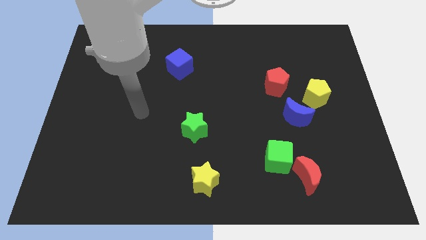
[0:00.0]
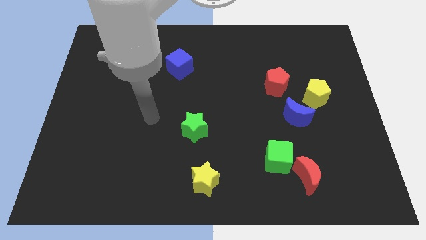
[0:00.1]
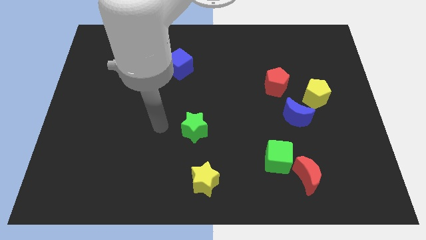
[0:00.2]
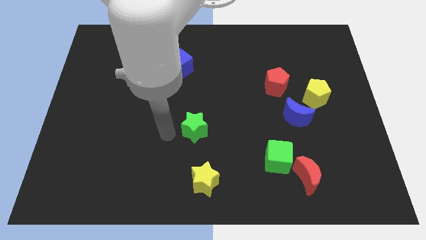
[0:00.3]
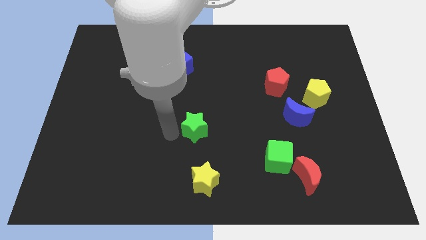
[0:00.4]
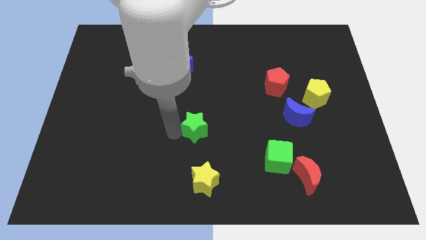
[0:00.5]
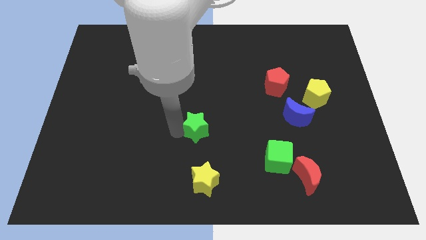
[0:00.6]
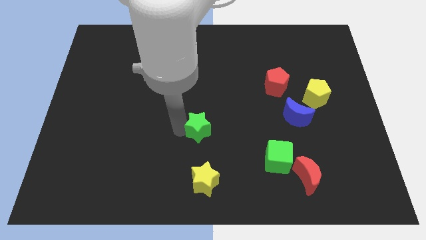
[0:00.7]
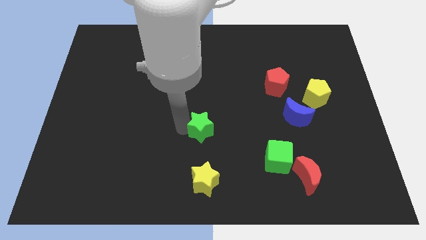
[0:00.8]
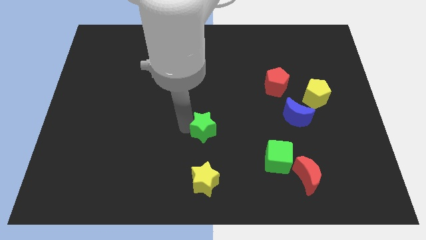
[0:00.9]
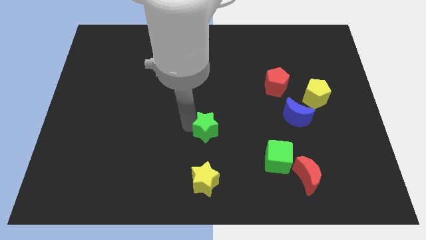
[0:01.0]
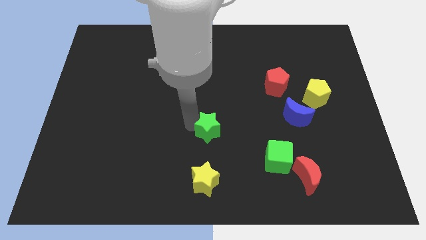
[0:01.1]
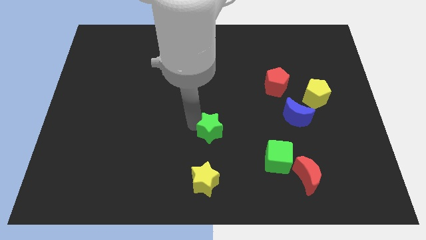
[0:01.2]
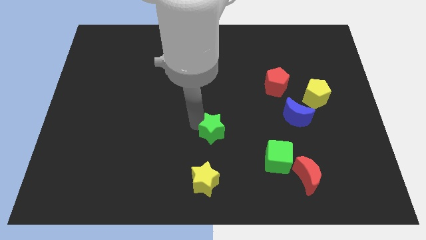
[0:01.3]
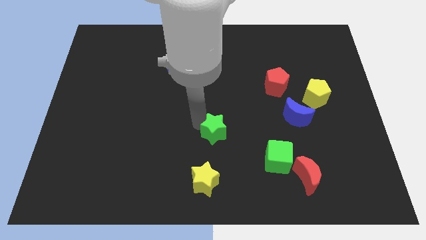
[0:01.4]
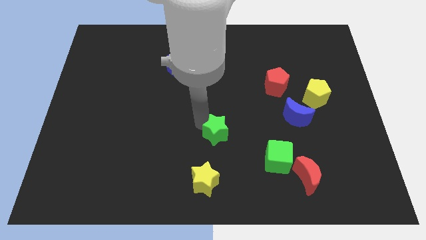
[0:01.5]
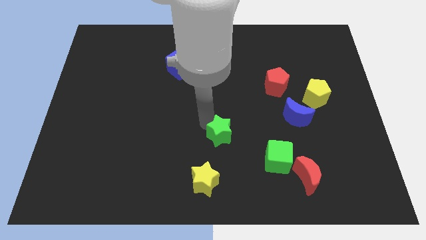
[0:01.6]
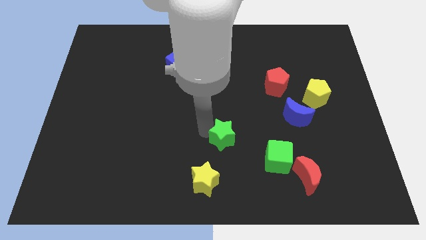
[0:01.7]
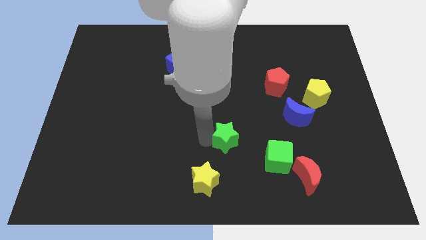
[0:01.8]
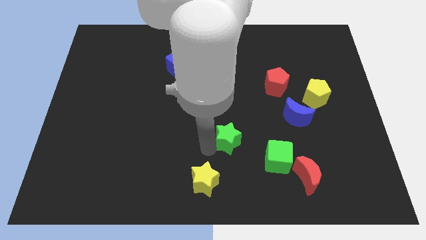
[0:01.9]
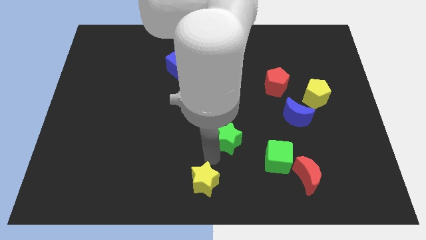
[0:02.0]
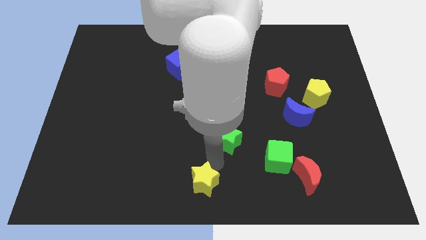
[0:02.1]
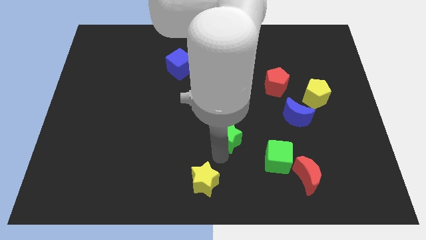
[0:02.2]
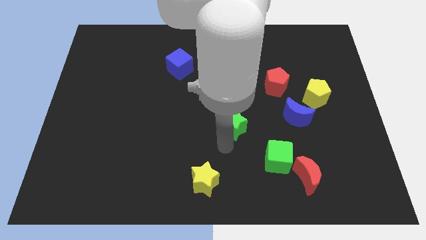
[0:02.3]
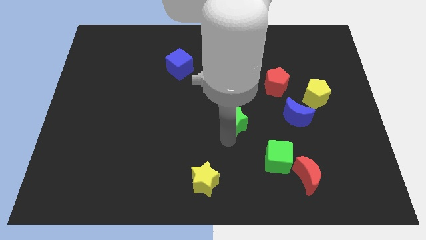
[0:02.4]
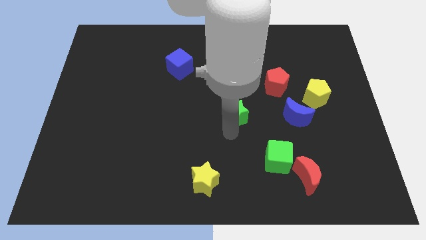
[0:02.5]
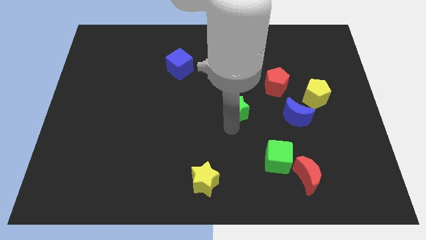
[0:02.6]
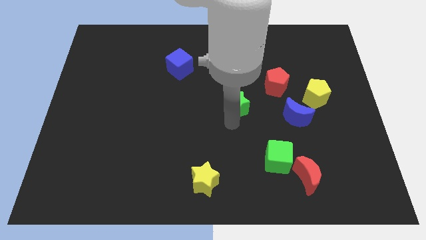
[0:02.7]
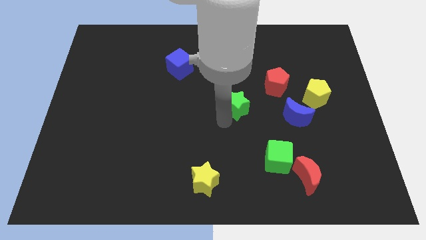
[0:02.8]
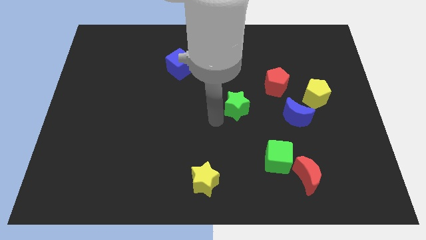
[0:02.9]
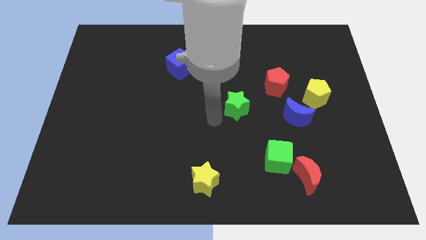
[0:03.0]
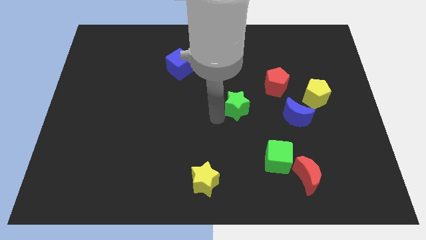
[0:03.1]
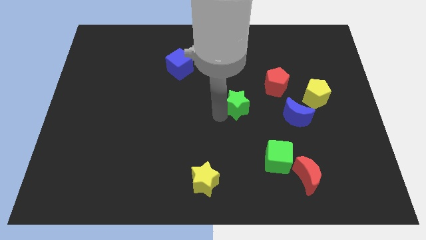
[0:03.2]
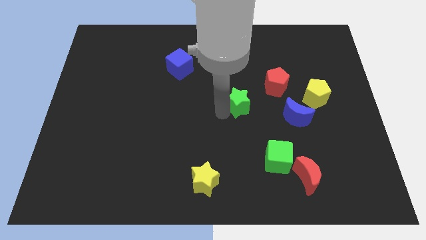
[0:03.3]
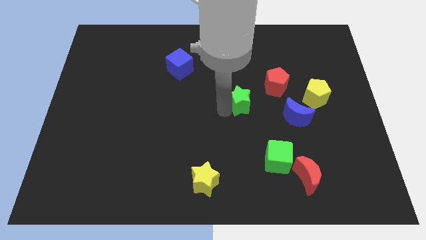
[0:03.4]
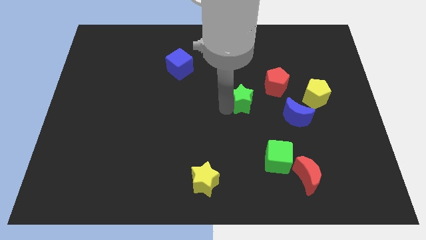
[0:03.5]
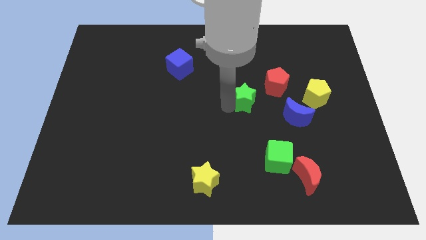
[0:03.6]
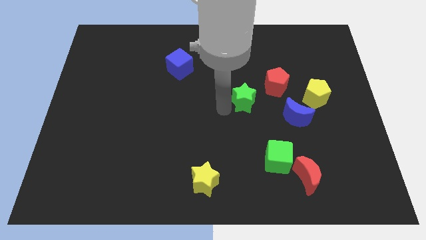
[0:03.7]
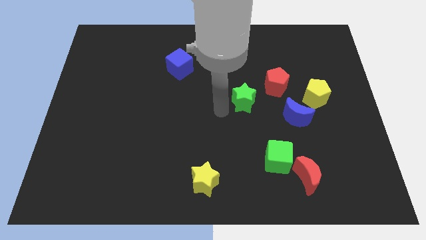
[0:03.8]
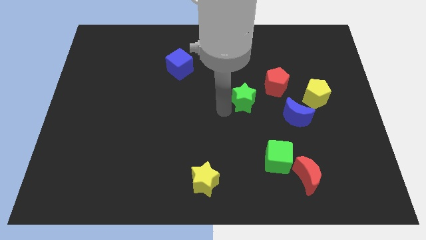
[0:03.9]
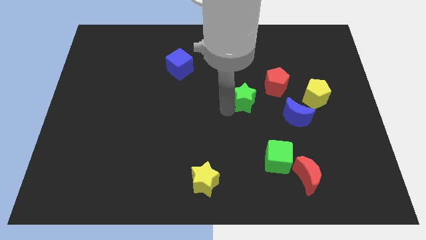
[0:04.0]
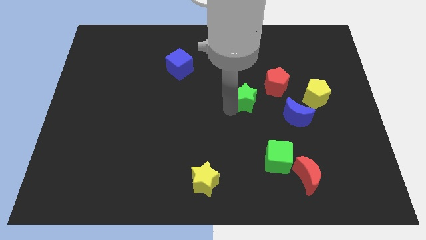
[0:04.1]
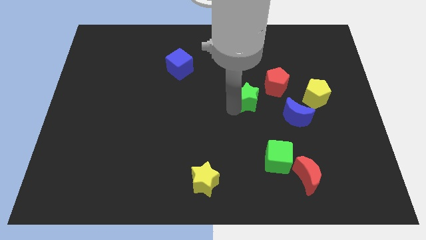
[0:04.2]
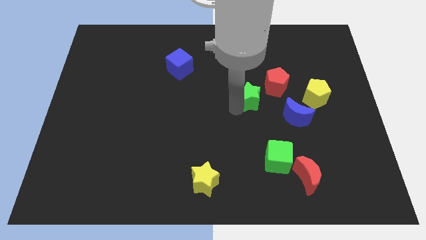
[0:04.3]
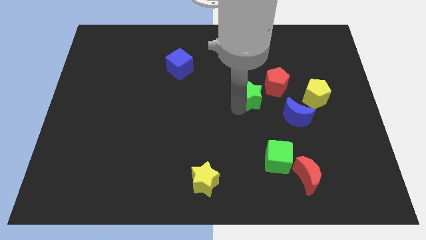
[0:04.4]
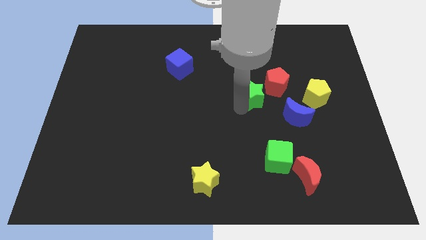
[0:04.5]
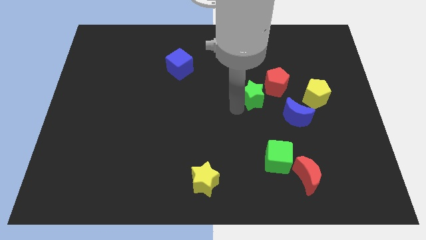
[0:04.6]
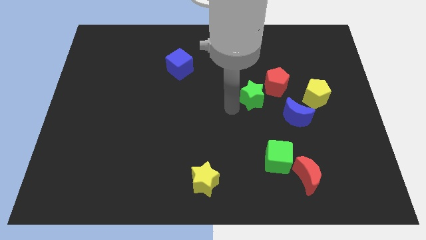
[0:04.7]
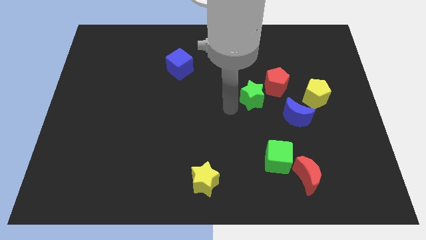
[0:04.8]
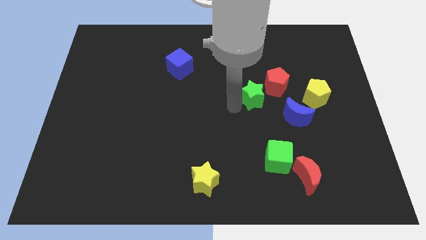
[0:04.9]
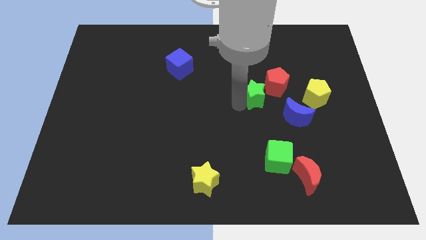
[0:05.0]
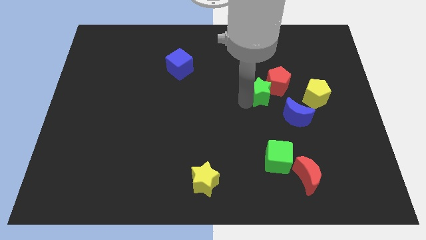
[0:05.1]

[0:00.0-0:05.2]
put the green star next to the red pentagon

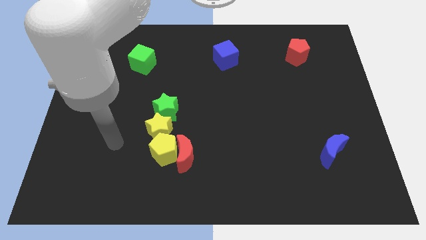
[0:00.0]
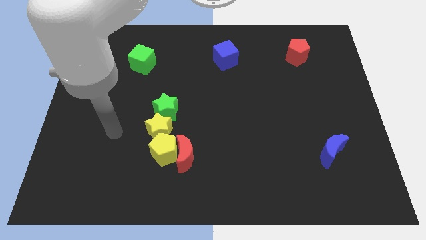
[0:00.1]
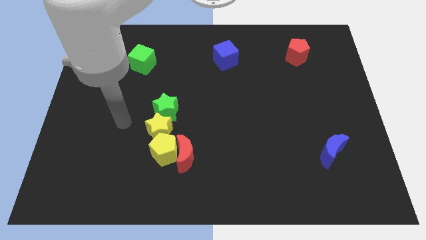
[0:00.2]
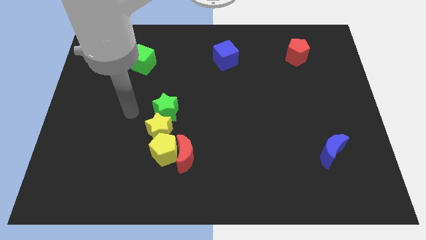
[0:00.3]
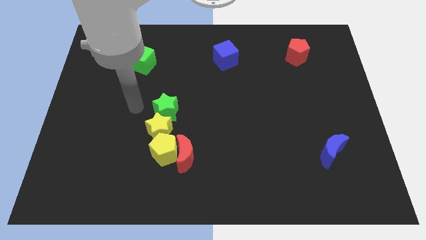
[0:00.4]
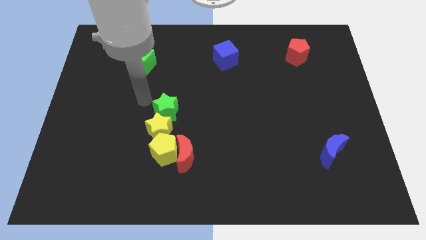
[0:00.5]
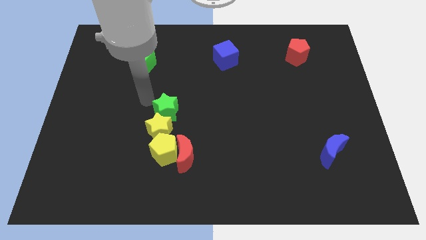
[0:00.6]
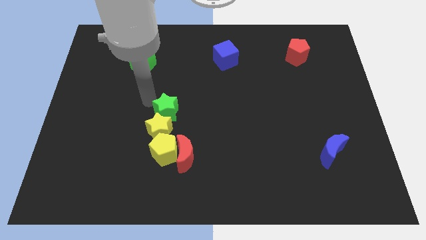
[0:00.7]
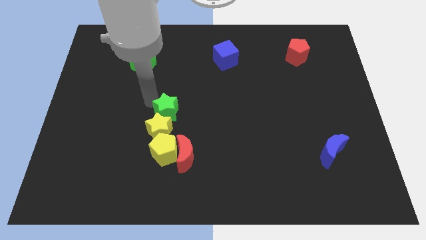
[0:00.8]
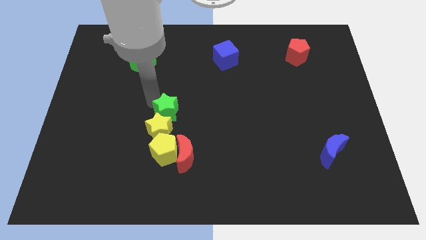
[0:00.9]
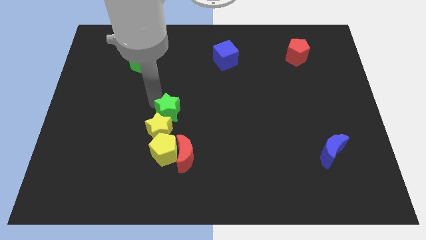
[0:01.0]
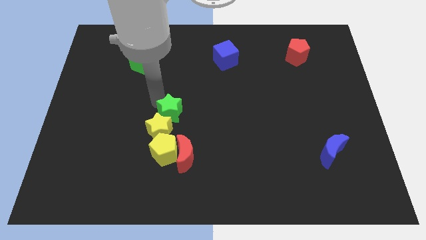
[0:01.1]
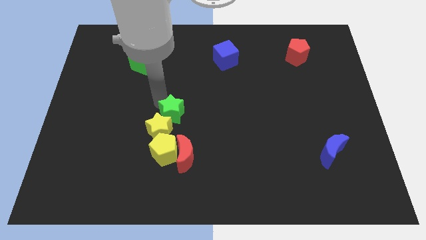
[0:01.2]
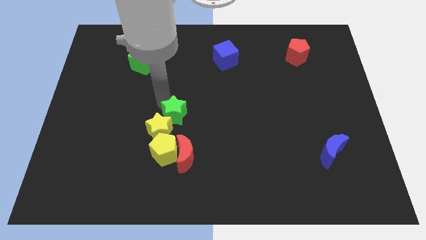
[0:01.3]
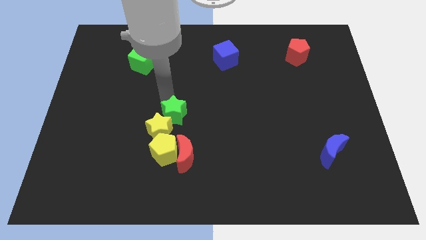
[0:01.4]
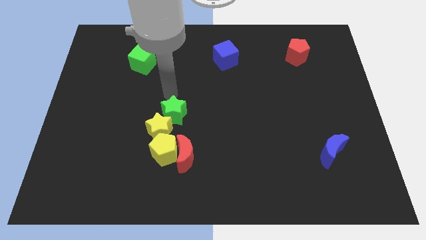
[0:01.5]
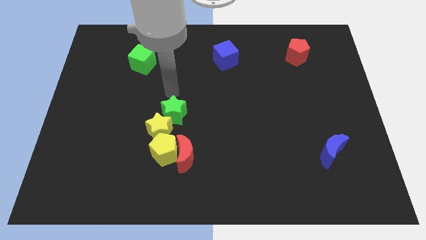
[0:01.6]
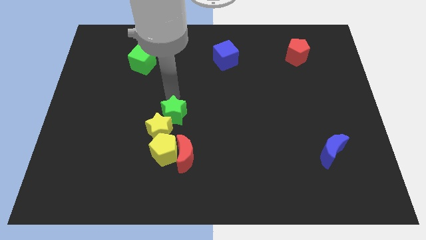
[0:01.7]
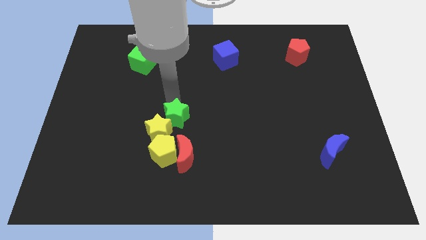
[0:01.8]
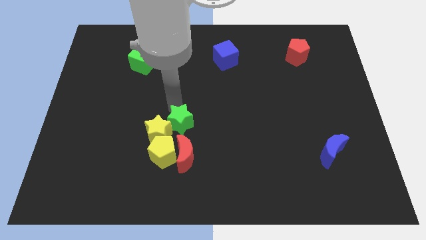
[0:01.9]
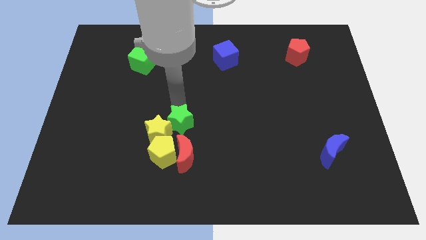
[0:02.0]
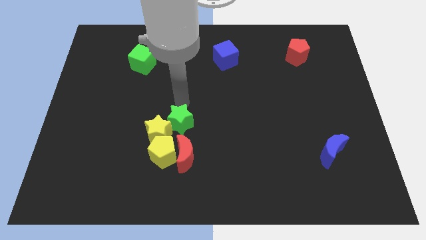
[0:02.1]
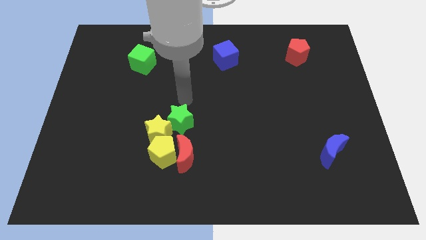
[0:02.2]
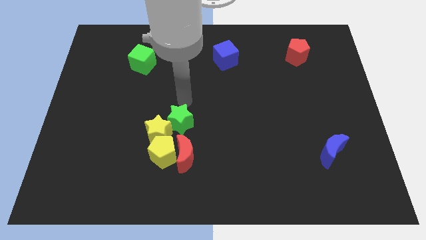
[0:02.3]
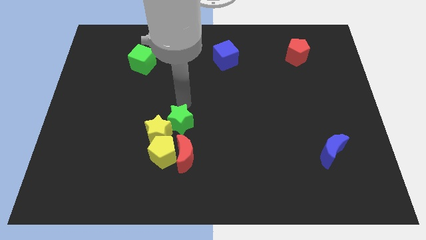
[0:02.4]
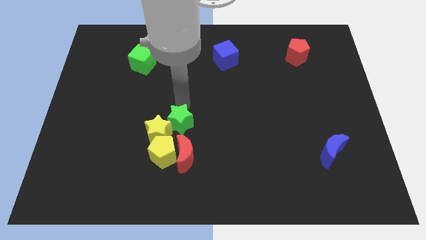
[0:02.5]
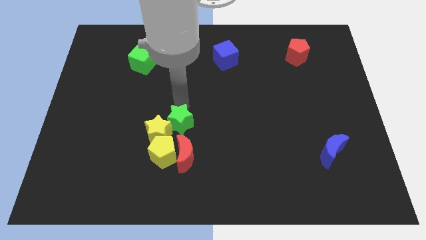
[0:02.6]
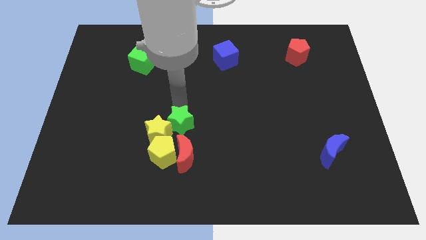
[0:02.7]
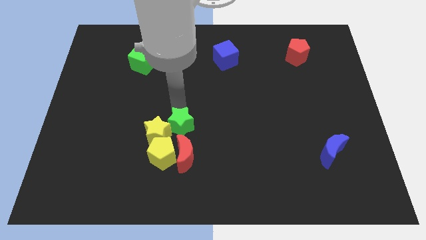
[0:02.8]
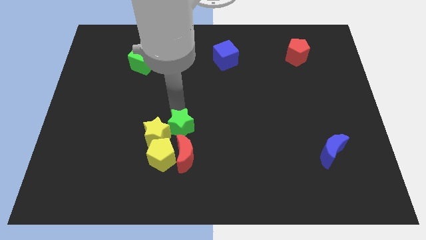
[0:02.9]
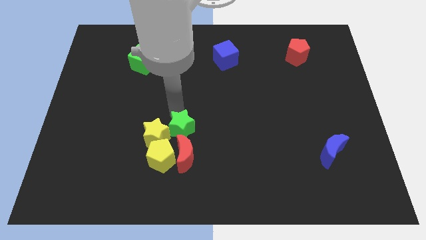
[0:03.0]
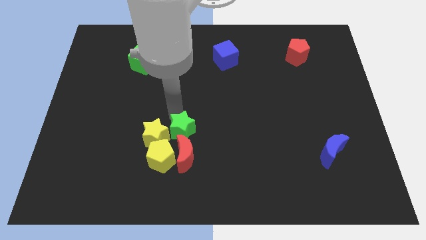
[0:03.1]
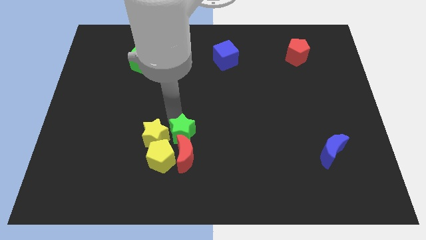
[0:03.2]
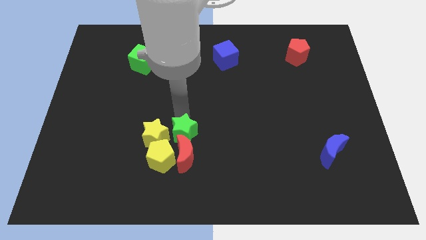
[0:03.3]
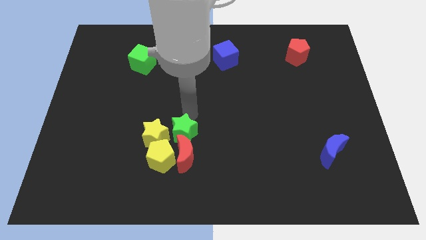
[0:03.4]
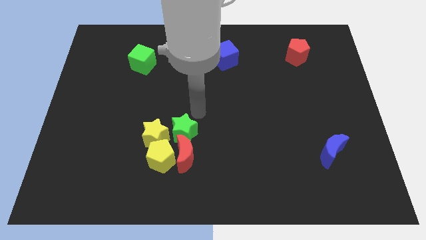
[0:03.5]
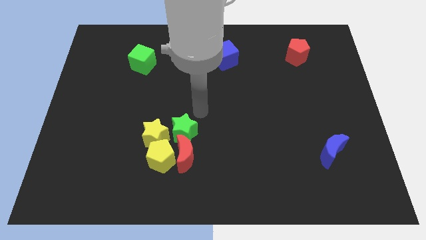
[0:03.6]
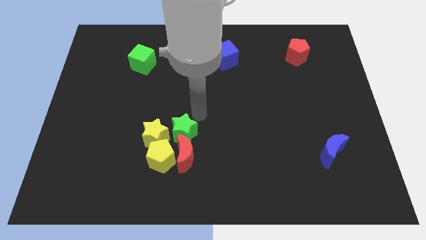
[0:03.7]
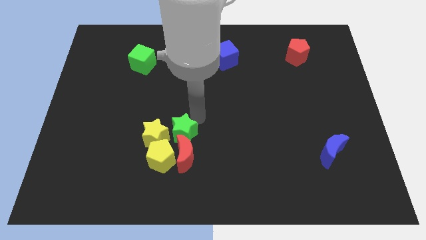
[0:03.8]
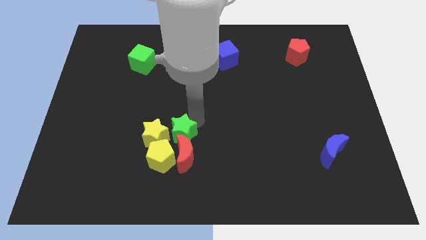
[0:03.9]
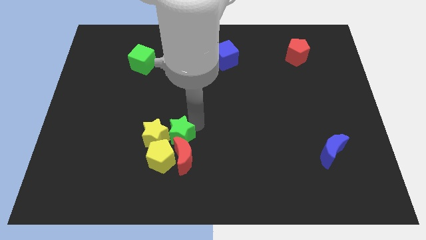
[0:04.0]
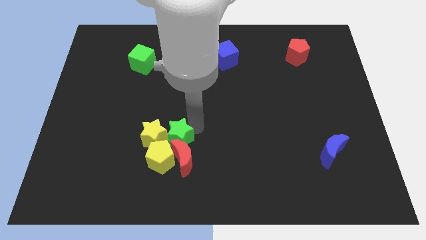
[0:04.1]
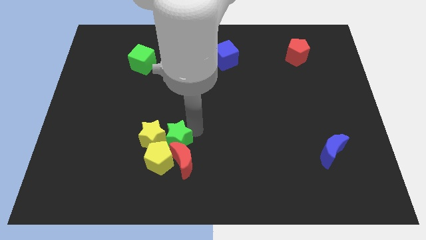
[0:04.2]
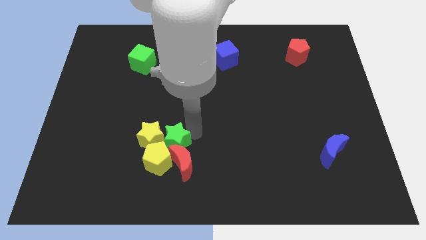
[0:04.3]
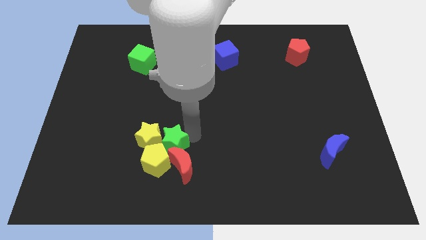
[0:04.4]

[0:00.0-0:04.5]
move the green star to the yellow pentagon
